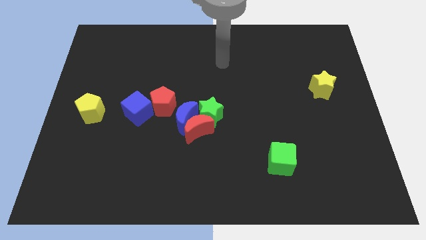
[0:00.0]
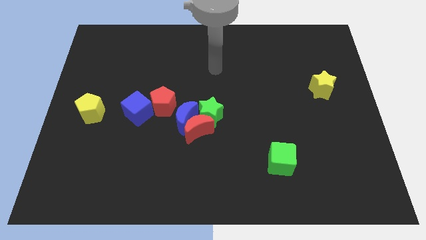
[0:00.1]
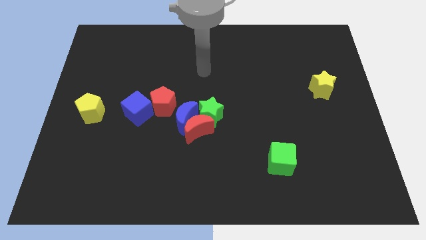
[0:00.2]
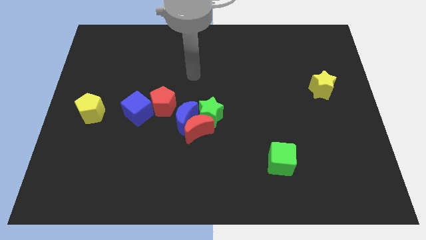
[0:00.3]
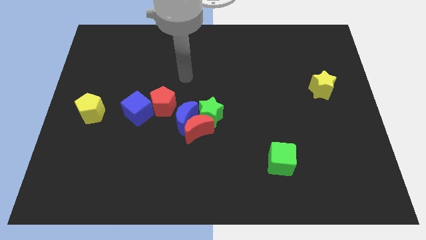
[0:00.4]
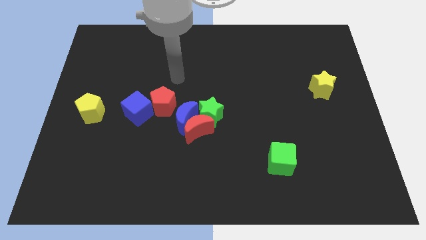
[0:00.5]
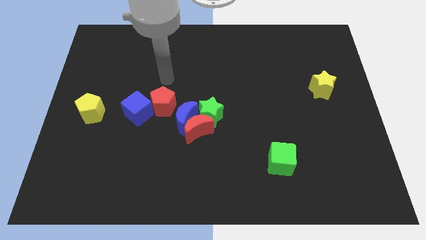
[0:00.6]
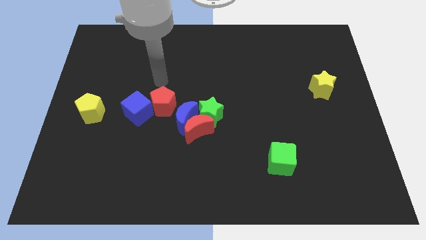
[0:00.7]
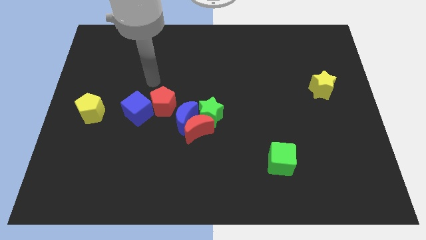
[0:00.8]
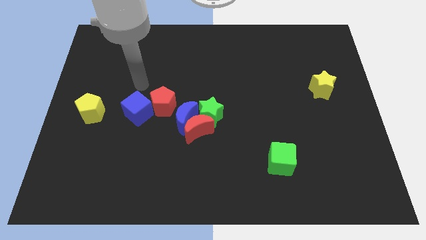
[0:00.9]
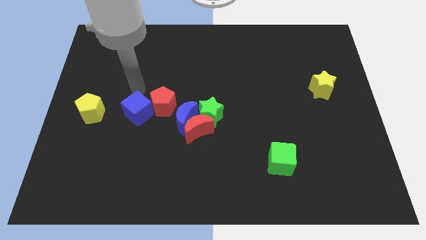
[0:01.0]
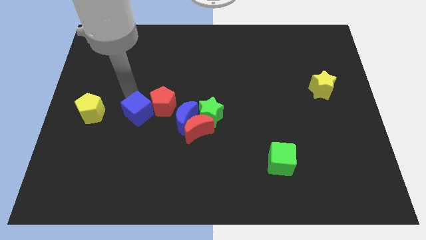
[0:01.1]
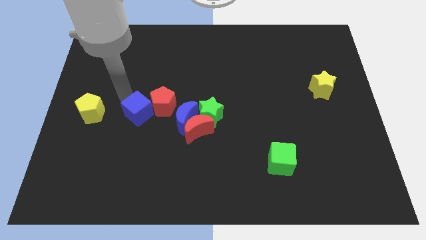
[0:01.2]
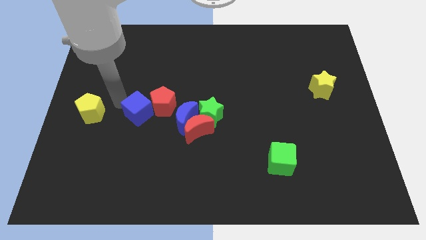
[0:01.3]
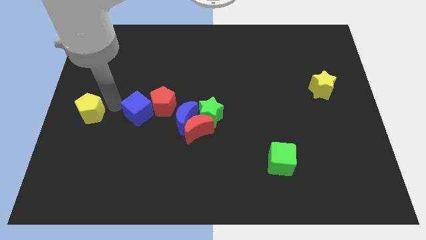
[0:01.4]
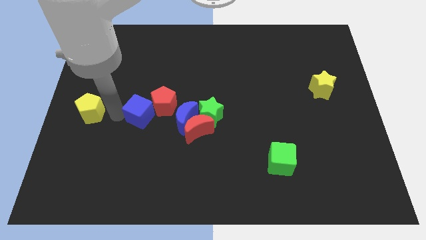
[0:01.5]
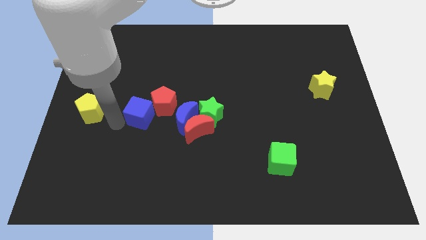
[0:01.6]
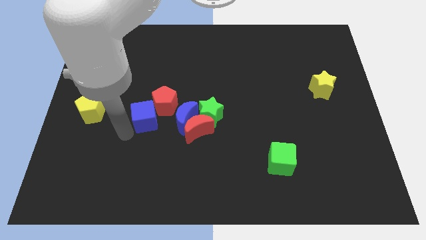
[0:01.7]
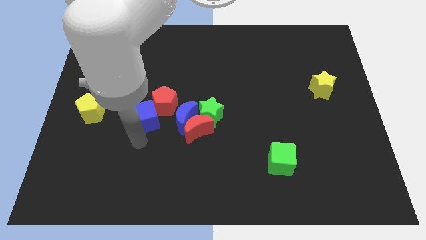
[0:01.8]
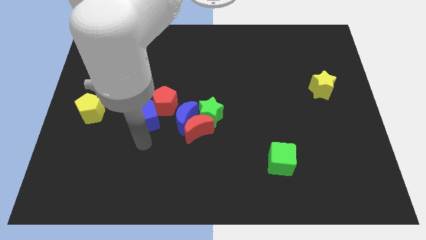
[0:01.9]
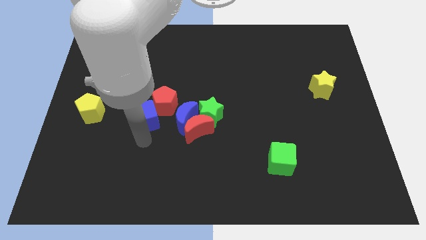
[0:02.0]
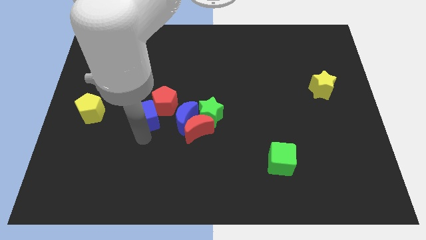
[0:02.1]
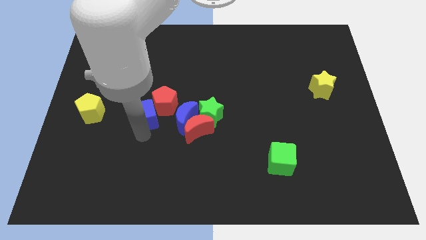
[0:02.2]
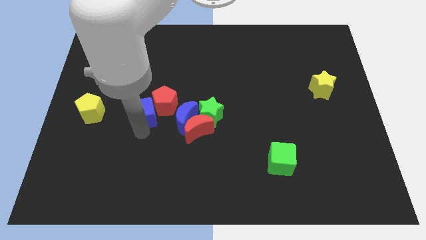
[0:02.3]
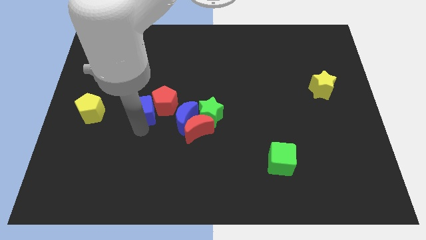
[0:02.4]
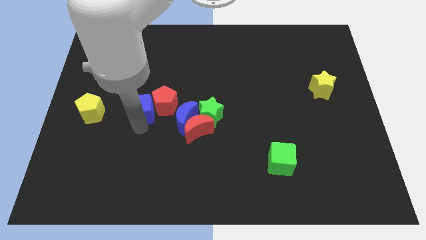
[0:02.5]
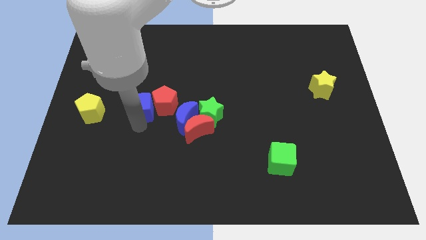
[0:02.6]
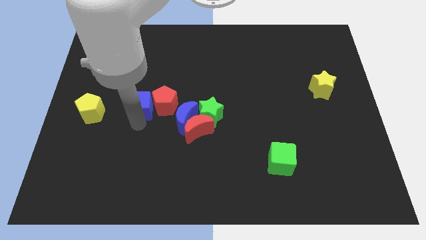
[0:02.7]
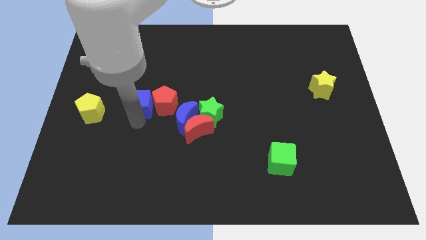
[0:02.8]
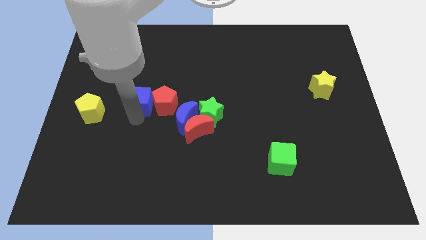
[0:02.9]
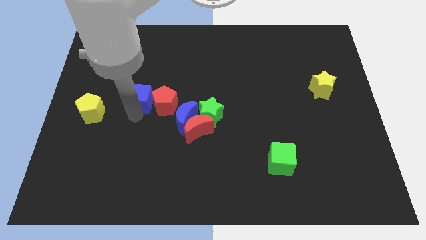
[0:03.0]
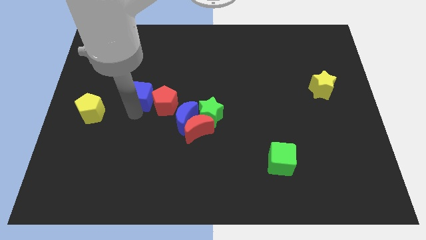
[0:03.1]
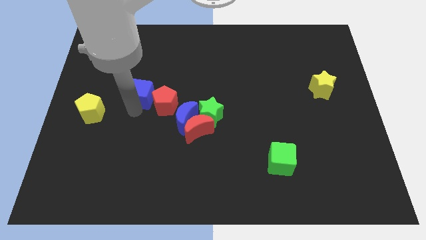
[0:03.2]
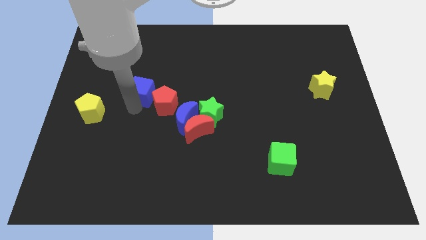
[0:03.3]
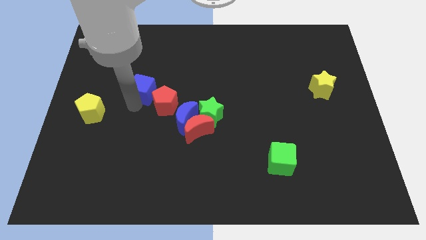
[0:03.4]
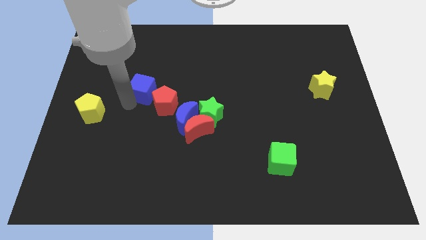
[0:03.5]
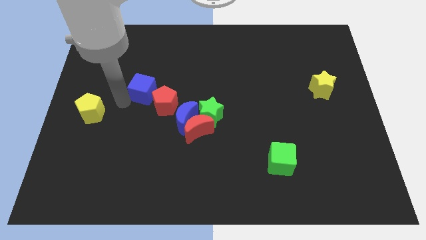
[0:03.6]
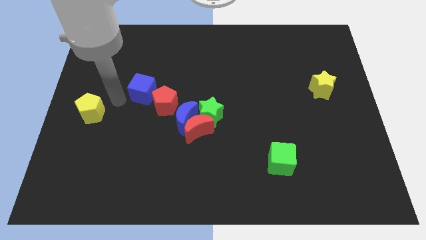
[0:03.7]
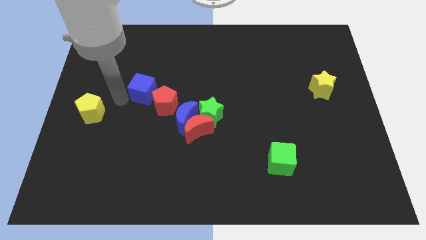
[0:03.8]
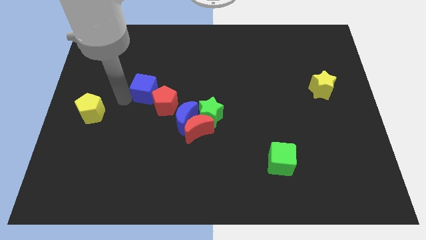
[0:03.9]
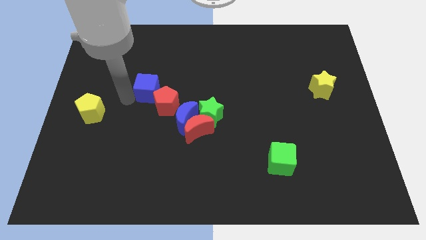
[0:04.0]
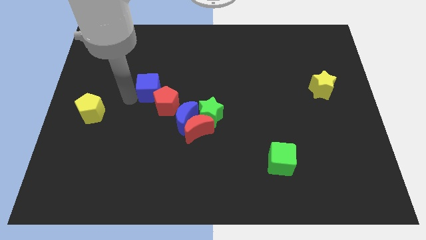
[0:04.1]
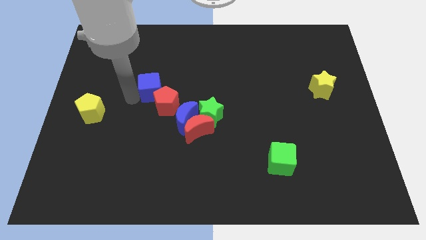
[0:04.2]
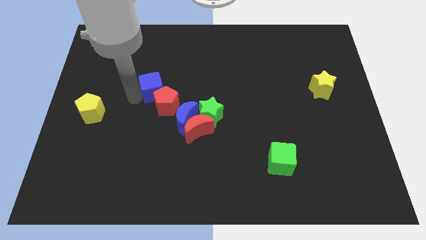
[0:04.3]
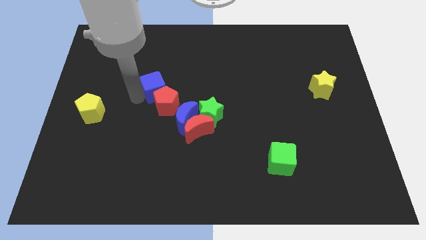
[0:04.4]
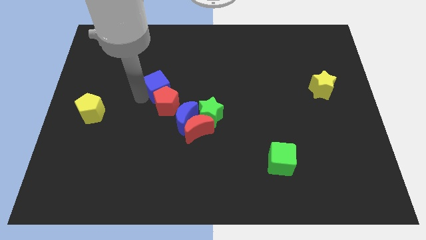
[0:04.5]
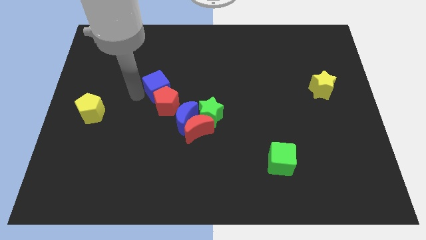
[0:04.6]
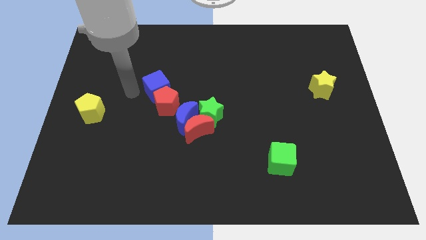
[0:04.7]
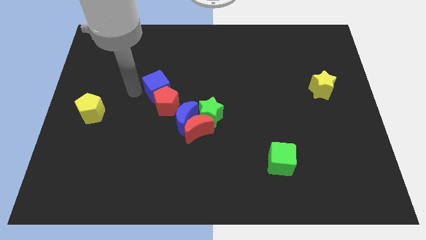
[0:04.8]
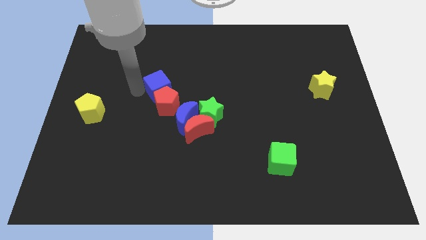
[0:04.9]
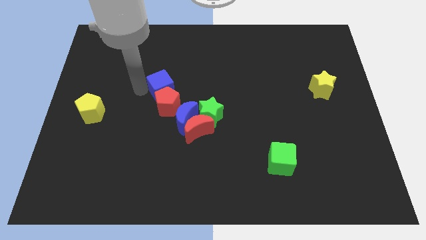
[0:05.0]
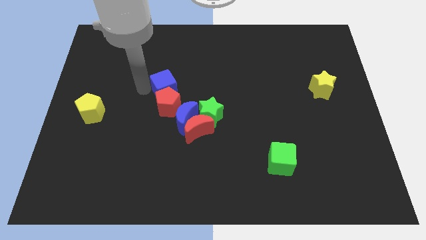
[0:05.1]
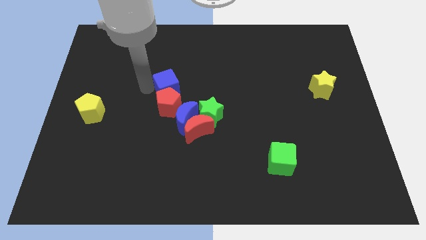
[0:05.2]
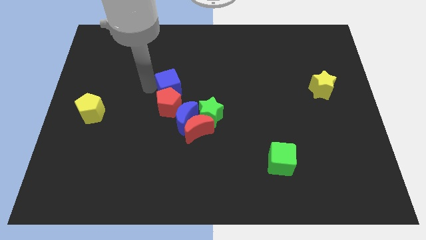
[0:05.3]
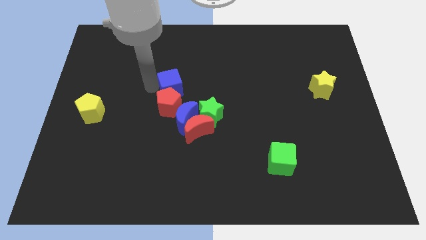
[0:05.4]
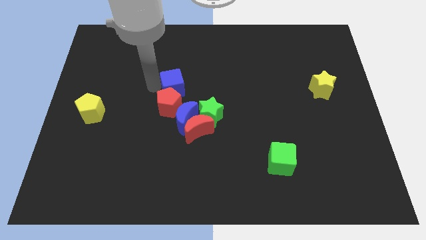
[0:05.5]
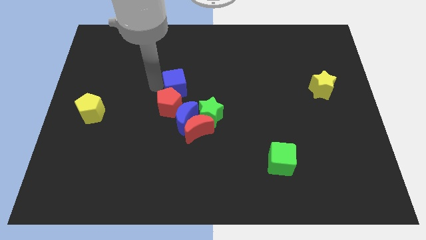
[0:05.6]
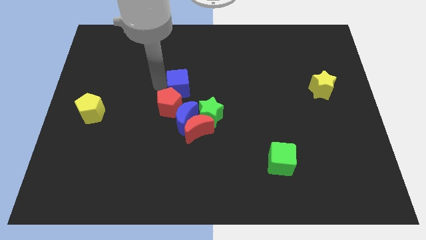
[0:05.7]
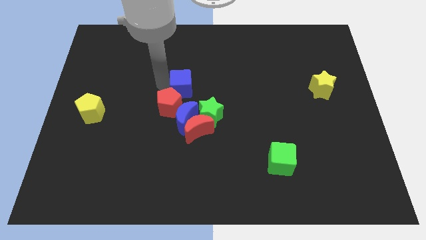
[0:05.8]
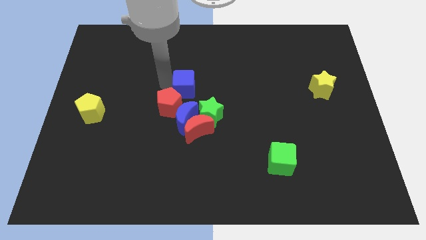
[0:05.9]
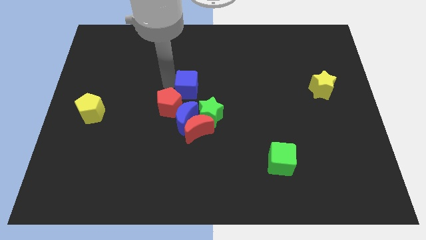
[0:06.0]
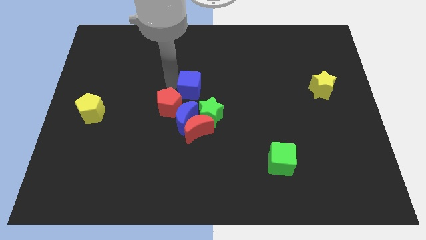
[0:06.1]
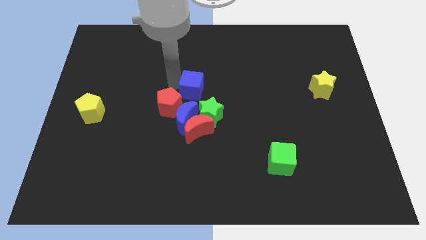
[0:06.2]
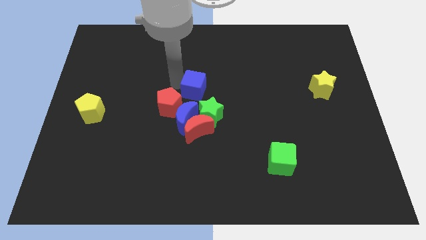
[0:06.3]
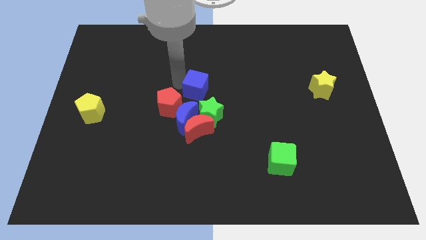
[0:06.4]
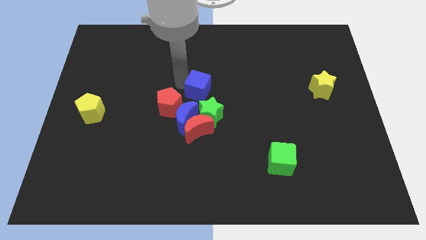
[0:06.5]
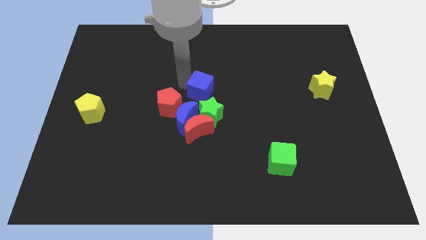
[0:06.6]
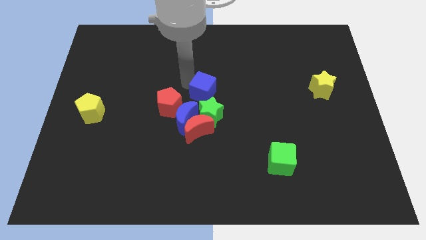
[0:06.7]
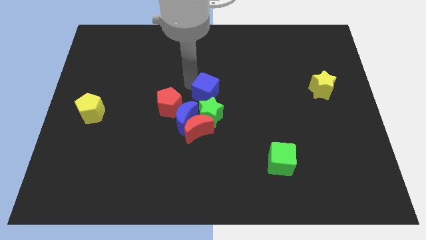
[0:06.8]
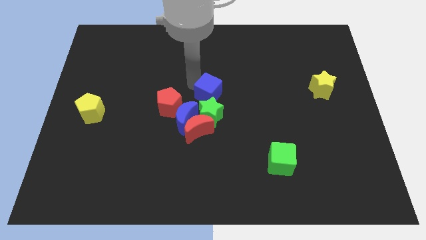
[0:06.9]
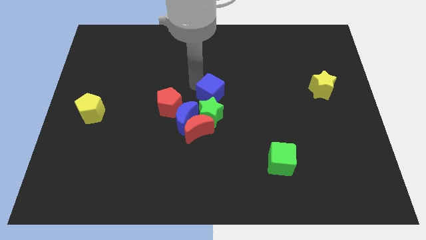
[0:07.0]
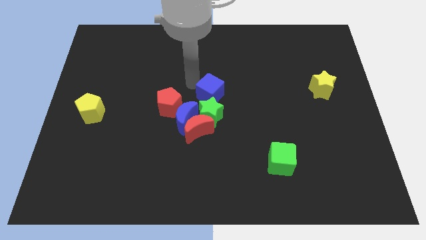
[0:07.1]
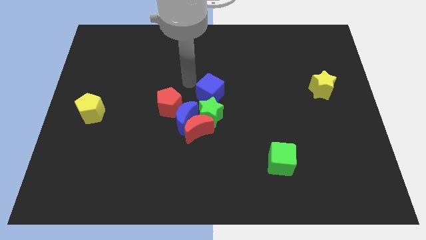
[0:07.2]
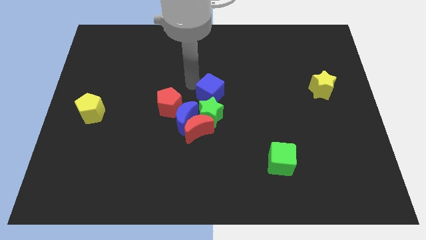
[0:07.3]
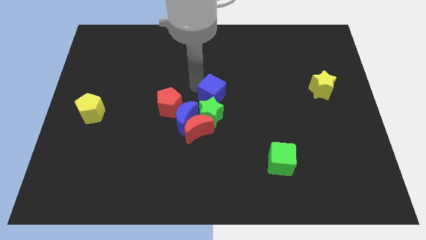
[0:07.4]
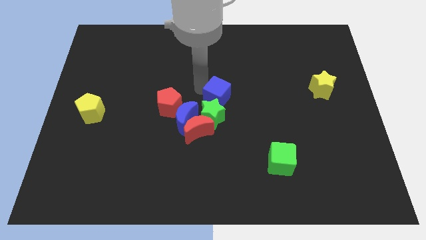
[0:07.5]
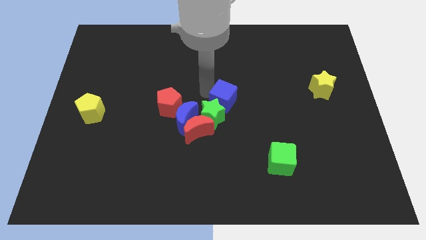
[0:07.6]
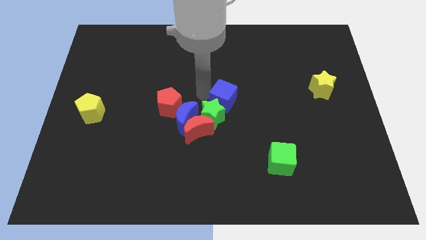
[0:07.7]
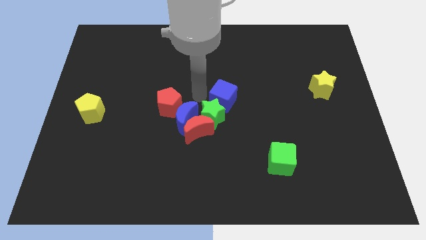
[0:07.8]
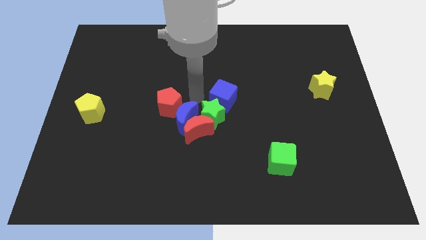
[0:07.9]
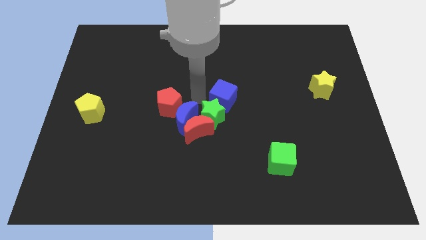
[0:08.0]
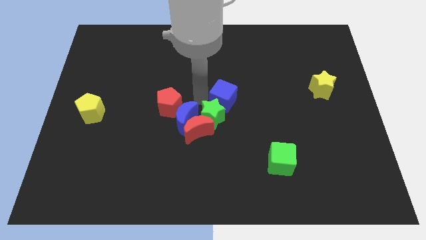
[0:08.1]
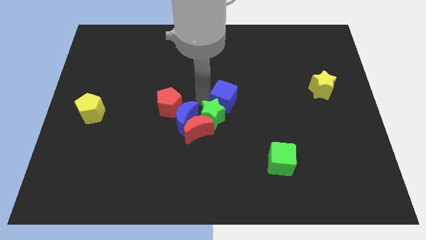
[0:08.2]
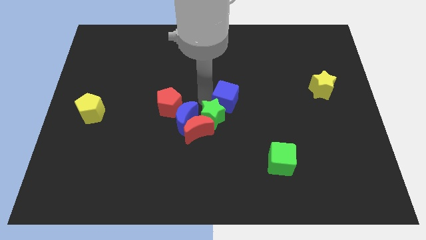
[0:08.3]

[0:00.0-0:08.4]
slide the blue cube right

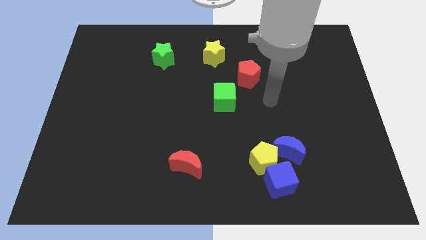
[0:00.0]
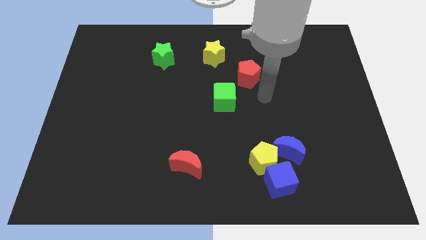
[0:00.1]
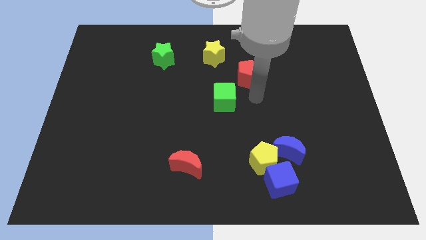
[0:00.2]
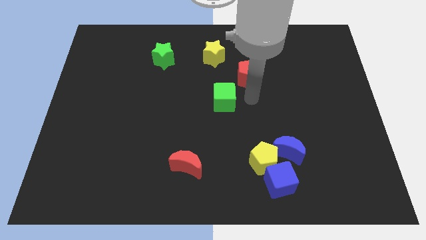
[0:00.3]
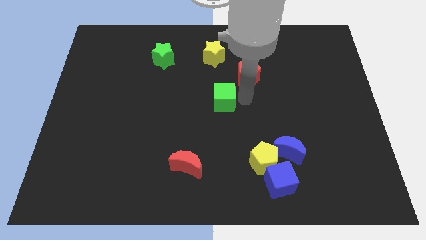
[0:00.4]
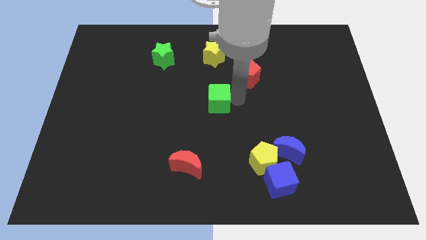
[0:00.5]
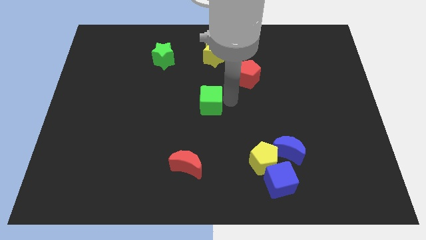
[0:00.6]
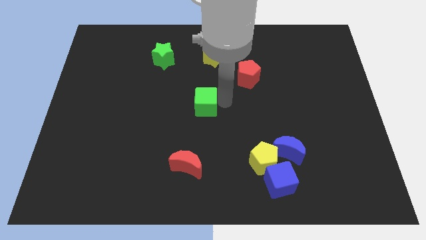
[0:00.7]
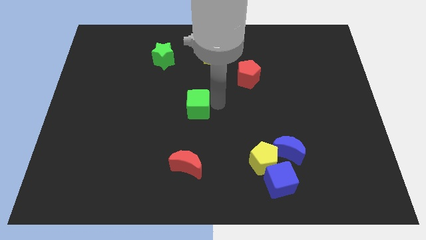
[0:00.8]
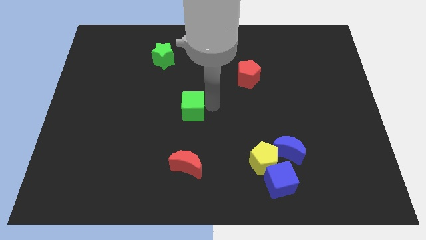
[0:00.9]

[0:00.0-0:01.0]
push the green cube slightly left
